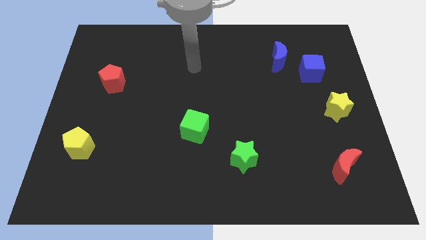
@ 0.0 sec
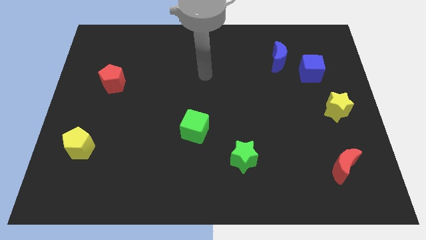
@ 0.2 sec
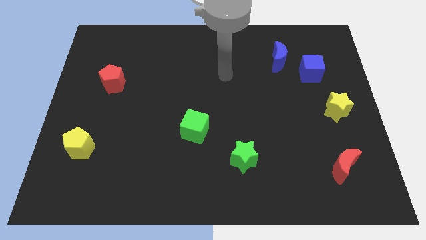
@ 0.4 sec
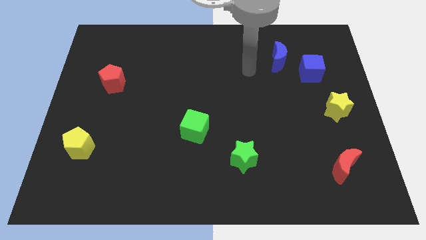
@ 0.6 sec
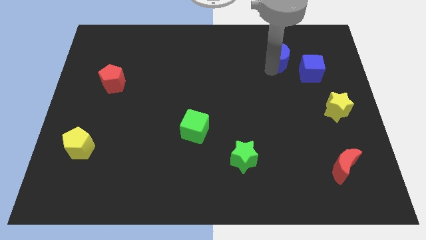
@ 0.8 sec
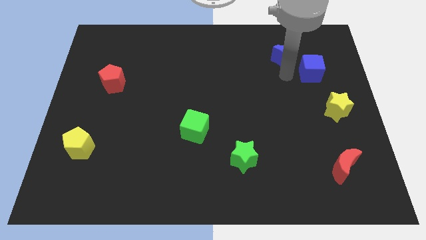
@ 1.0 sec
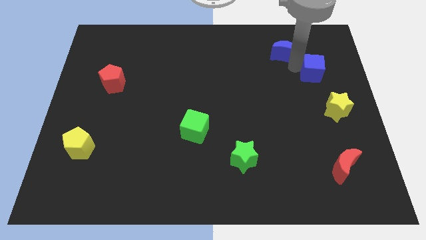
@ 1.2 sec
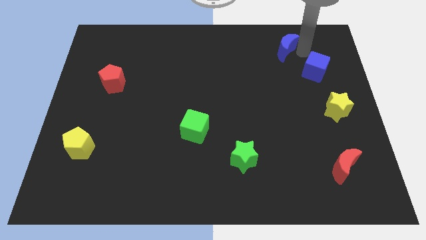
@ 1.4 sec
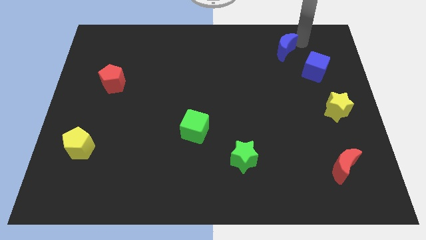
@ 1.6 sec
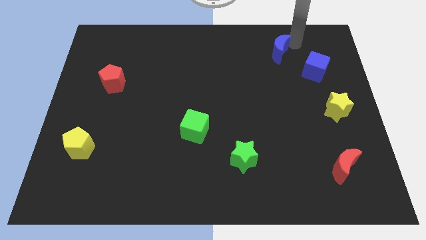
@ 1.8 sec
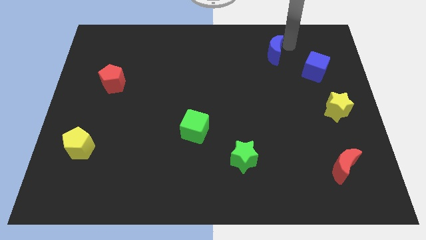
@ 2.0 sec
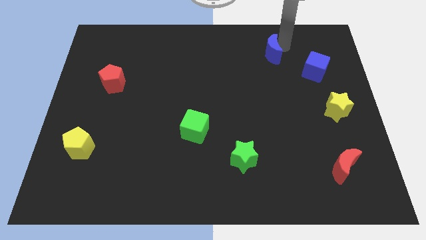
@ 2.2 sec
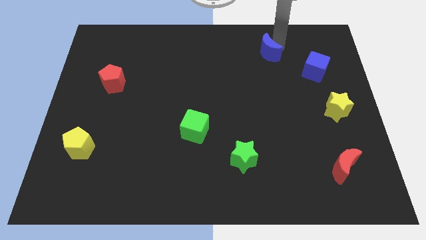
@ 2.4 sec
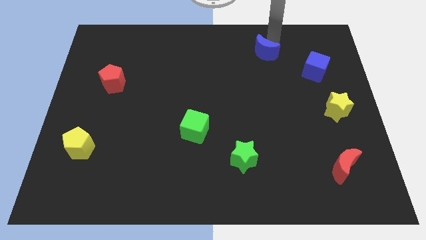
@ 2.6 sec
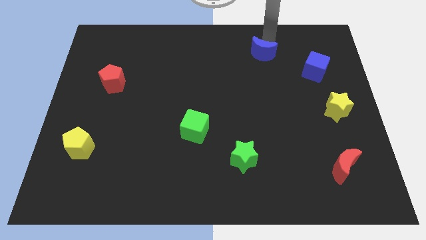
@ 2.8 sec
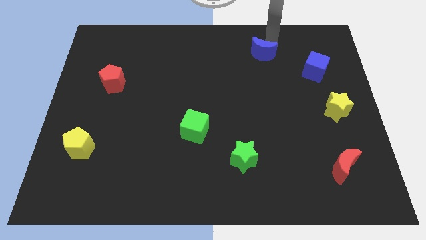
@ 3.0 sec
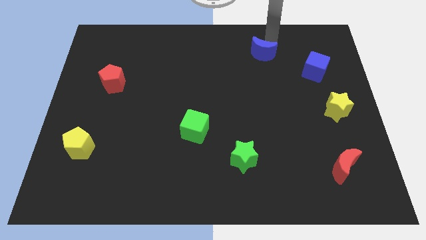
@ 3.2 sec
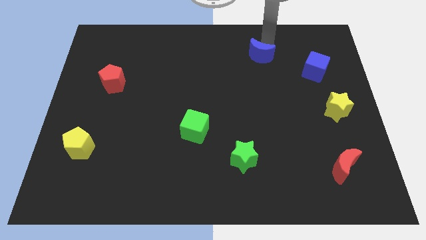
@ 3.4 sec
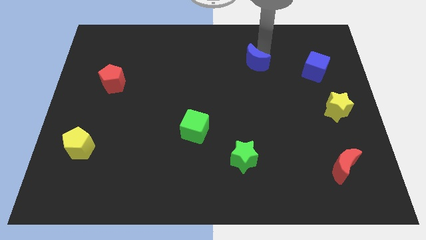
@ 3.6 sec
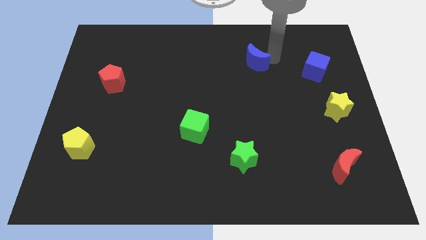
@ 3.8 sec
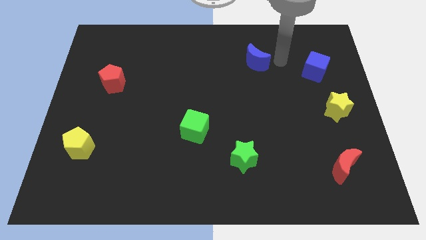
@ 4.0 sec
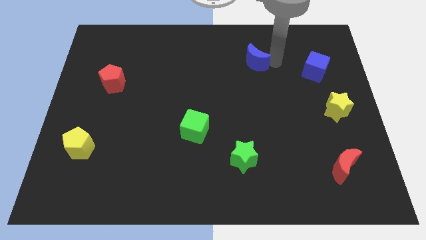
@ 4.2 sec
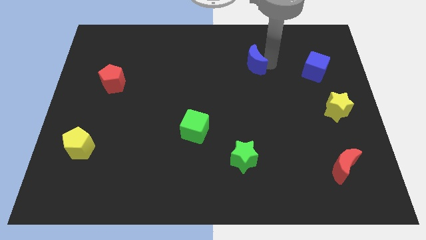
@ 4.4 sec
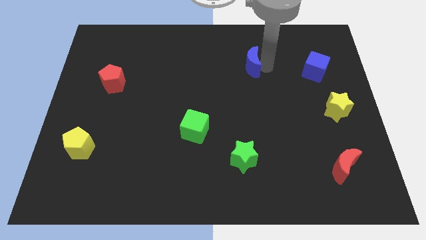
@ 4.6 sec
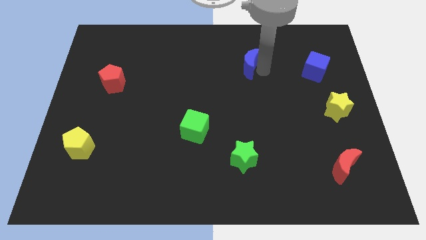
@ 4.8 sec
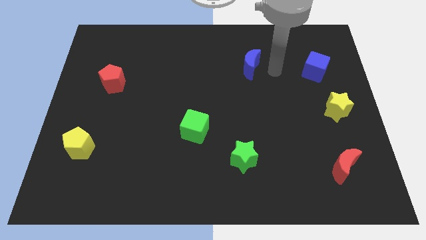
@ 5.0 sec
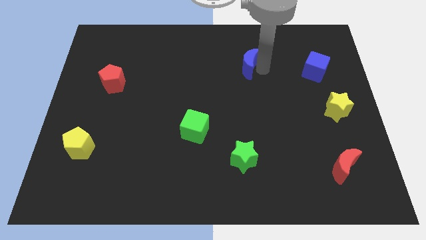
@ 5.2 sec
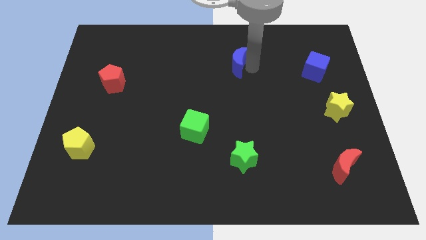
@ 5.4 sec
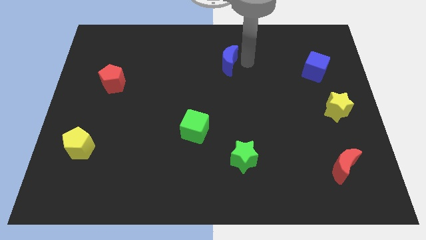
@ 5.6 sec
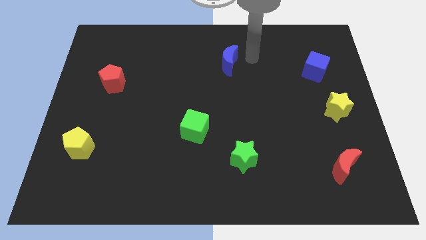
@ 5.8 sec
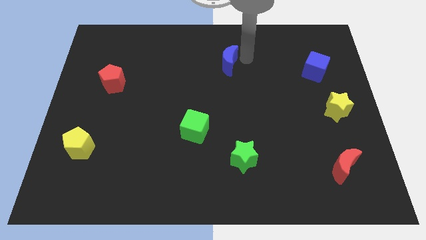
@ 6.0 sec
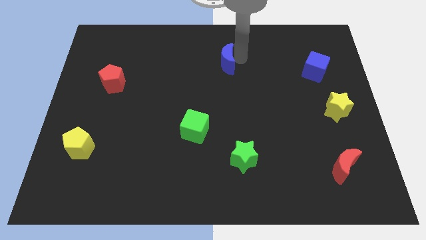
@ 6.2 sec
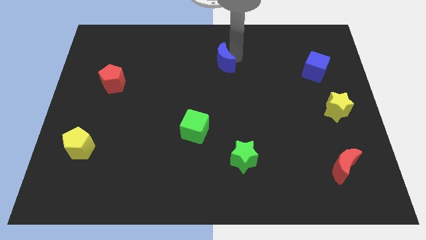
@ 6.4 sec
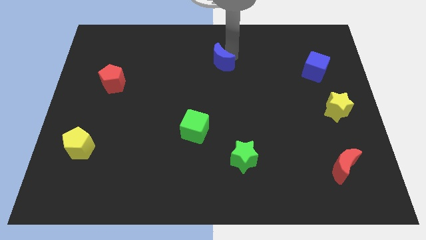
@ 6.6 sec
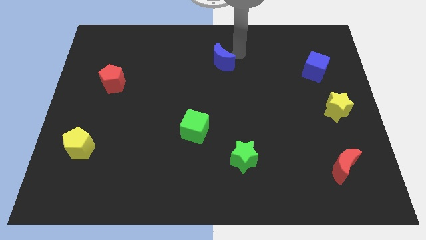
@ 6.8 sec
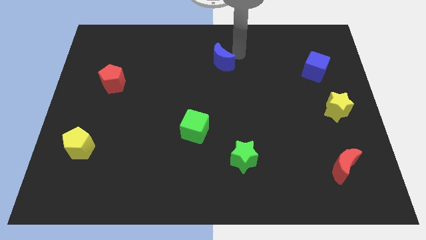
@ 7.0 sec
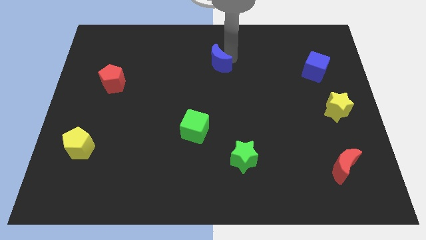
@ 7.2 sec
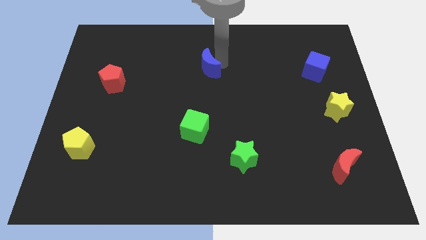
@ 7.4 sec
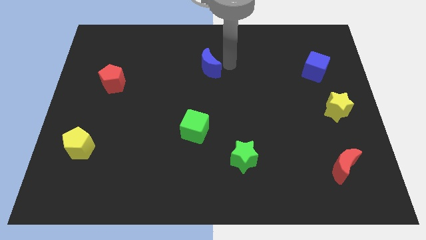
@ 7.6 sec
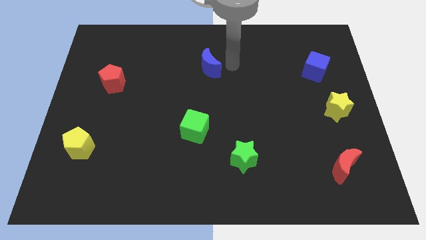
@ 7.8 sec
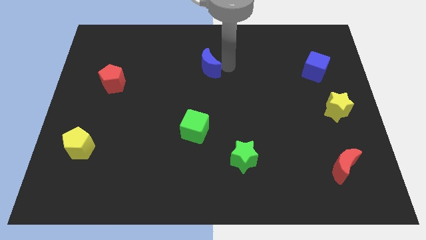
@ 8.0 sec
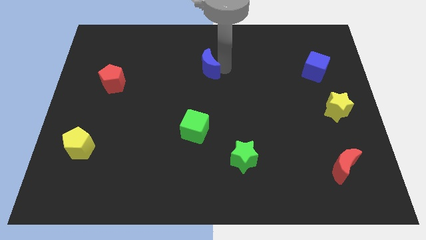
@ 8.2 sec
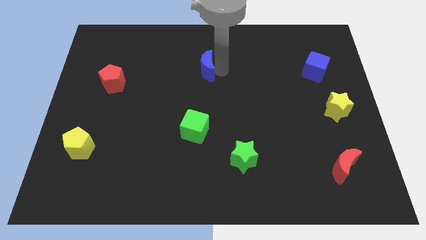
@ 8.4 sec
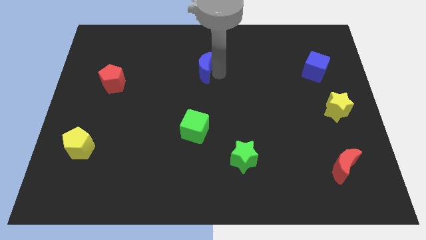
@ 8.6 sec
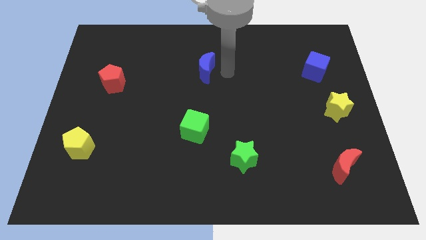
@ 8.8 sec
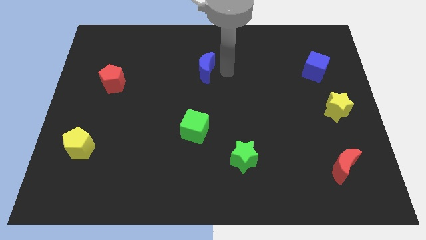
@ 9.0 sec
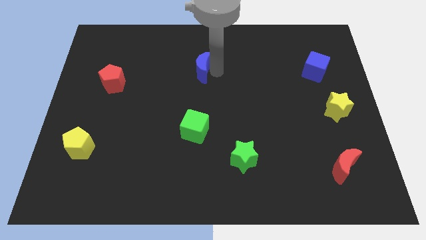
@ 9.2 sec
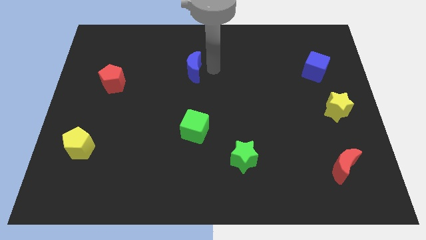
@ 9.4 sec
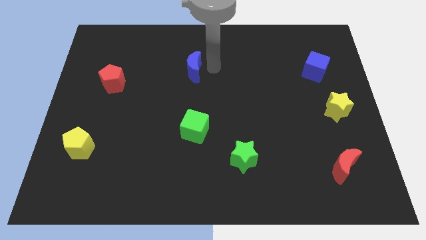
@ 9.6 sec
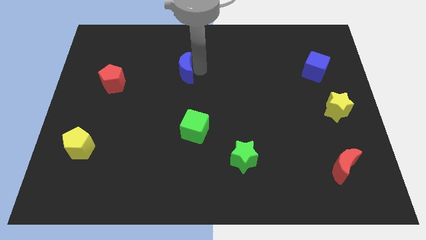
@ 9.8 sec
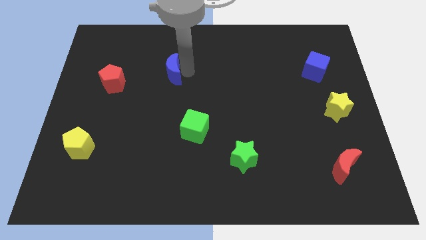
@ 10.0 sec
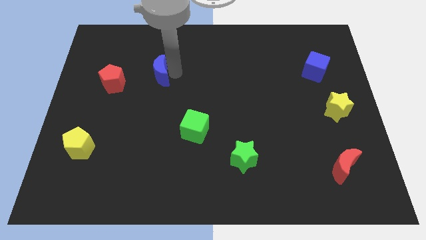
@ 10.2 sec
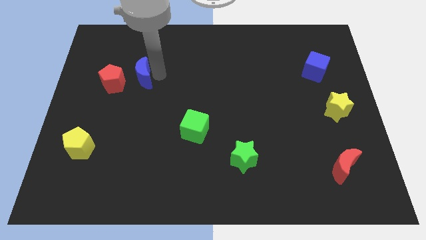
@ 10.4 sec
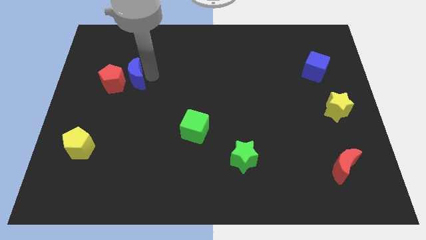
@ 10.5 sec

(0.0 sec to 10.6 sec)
move the blue moon next to the red pentagon

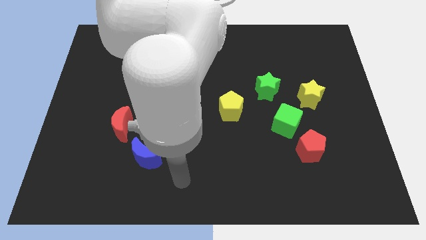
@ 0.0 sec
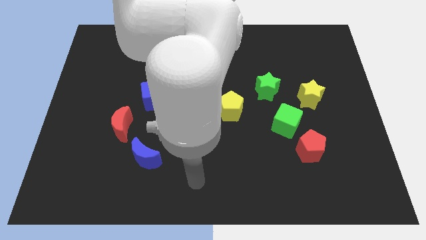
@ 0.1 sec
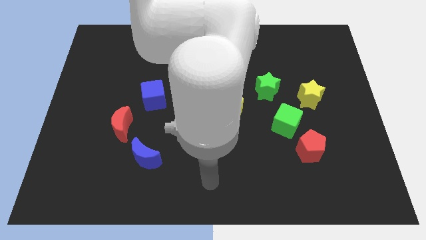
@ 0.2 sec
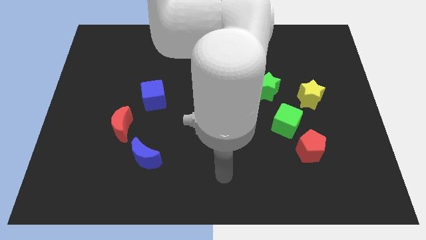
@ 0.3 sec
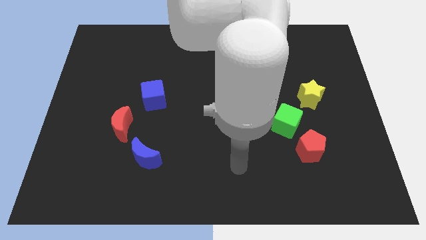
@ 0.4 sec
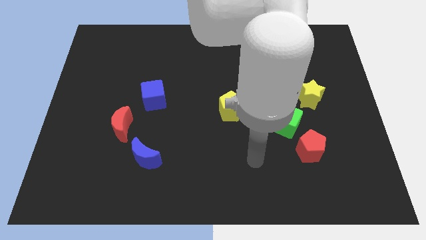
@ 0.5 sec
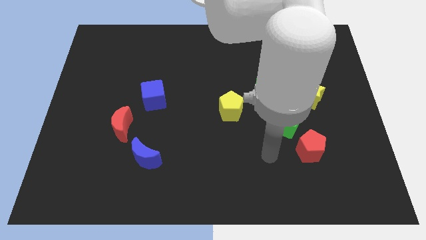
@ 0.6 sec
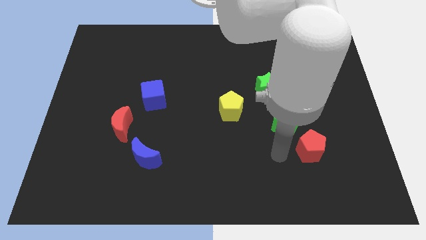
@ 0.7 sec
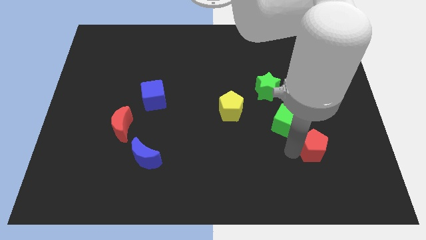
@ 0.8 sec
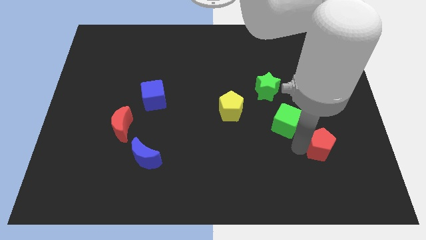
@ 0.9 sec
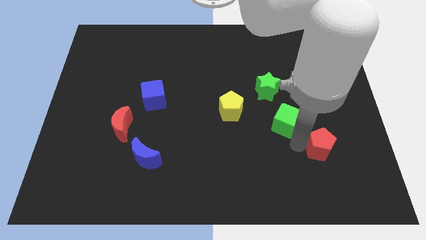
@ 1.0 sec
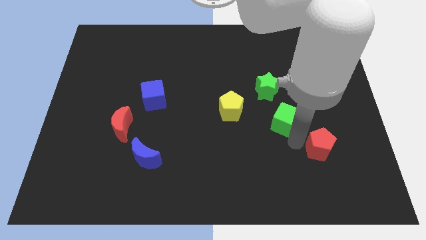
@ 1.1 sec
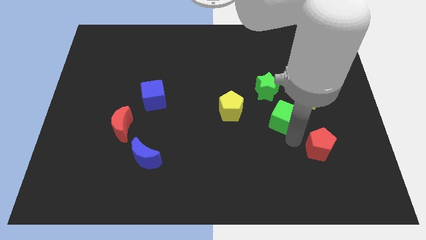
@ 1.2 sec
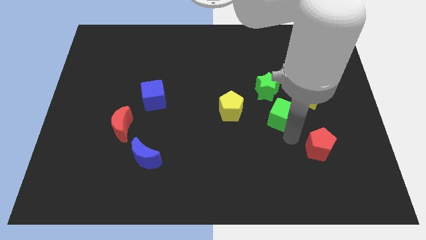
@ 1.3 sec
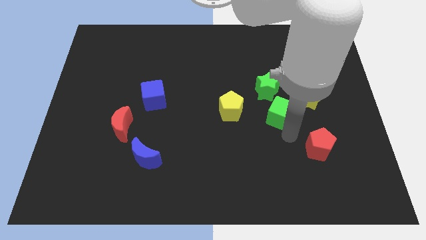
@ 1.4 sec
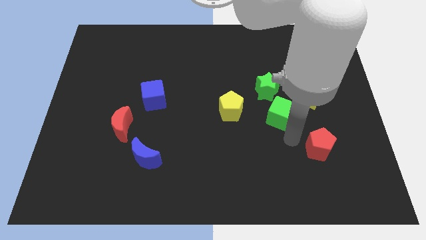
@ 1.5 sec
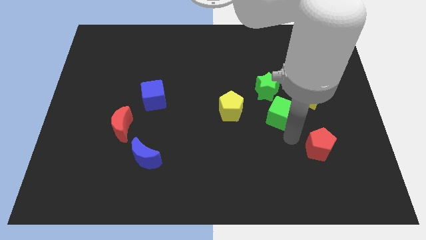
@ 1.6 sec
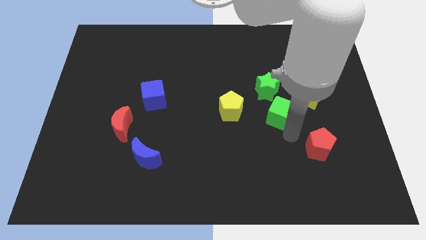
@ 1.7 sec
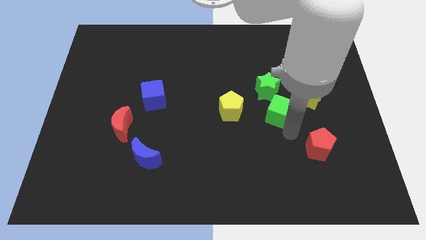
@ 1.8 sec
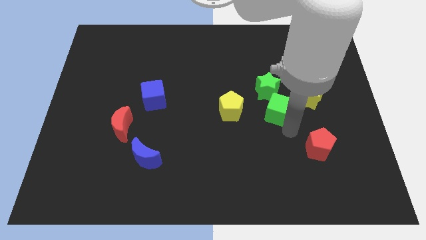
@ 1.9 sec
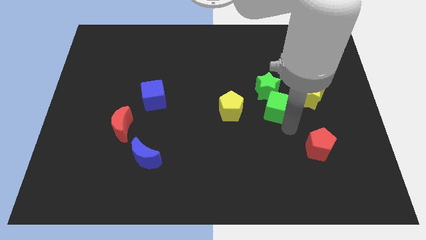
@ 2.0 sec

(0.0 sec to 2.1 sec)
push the green cube close to the green star
